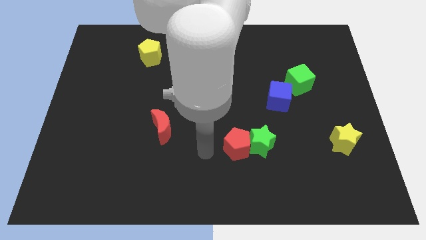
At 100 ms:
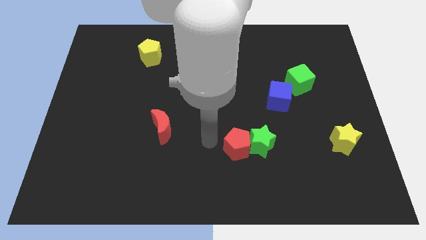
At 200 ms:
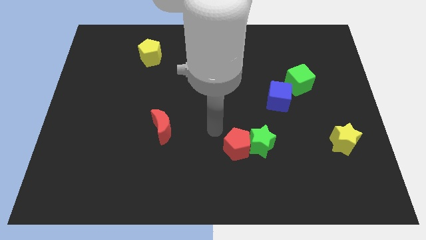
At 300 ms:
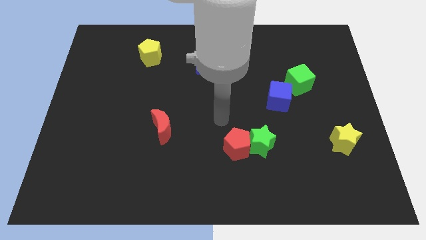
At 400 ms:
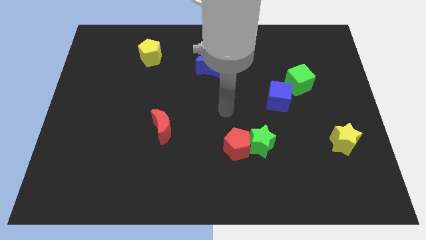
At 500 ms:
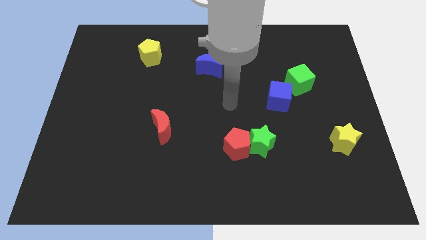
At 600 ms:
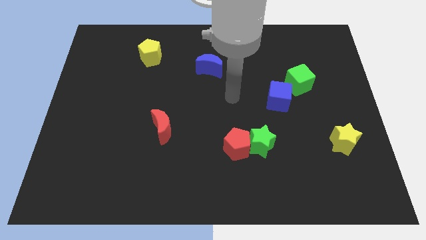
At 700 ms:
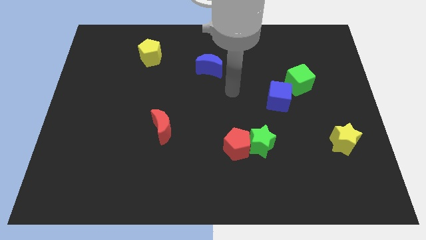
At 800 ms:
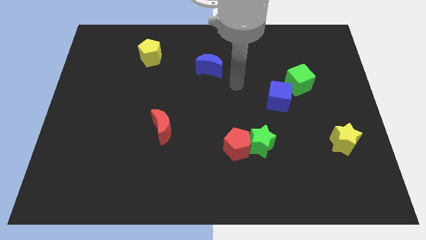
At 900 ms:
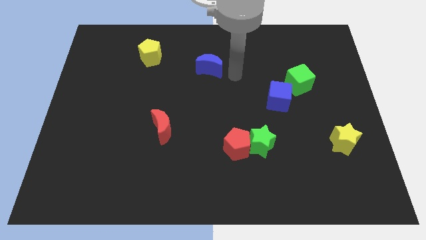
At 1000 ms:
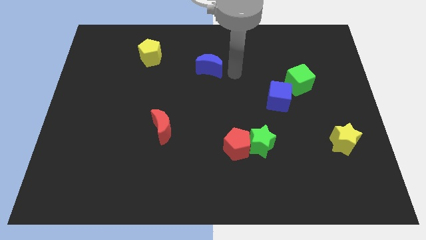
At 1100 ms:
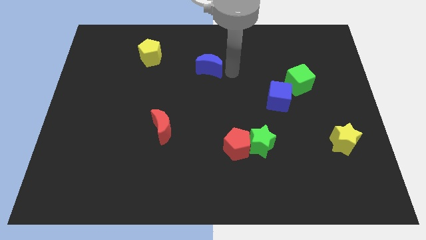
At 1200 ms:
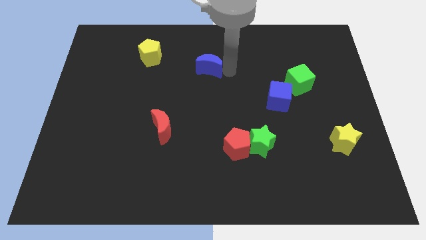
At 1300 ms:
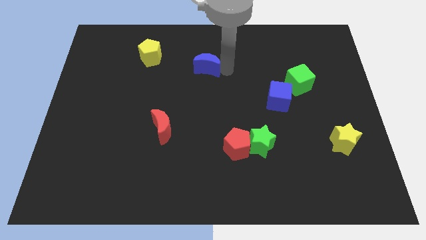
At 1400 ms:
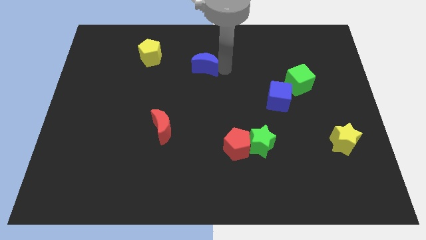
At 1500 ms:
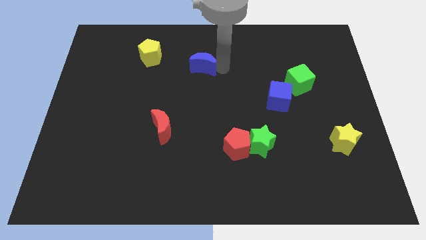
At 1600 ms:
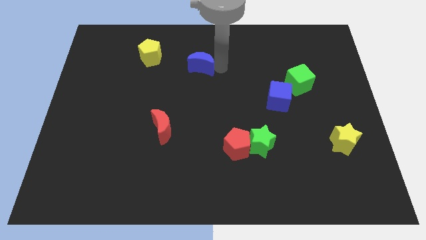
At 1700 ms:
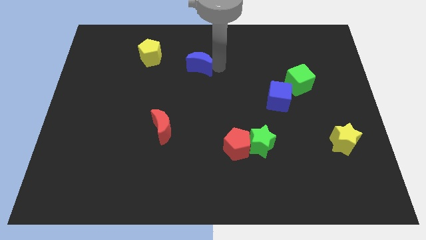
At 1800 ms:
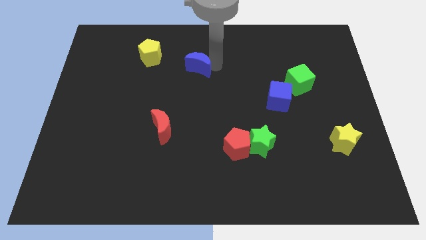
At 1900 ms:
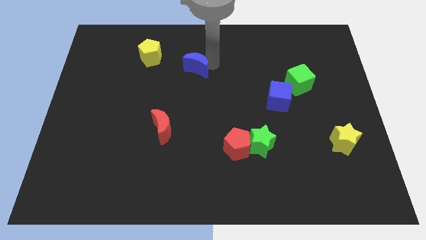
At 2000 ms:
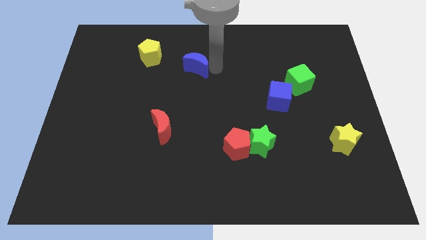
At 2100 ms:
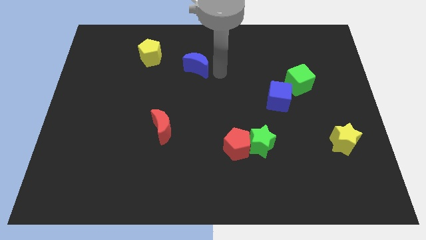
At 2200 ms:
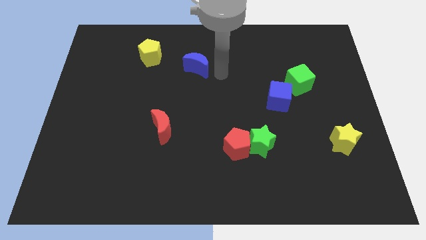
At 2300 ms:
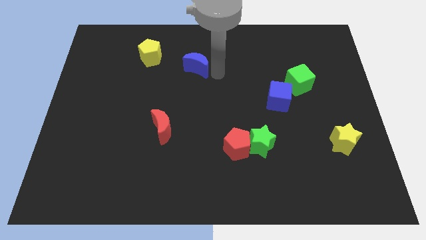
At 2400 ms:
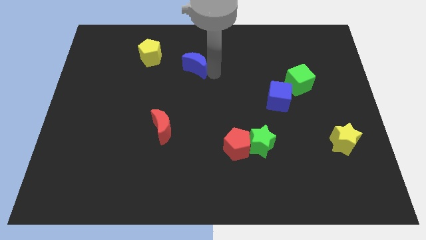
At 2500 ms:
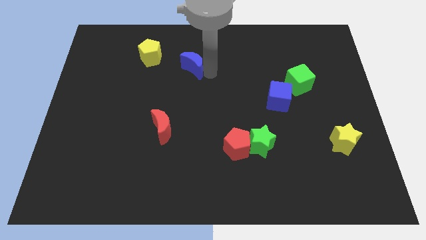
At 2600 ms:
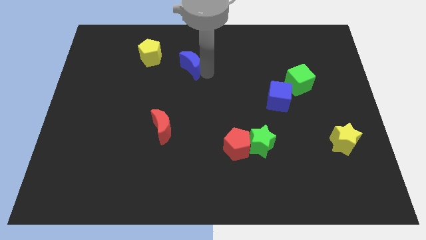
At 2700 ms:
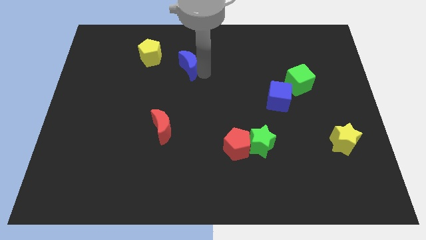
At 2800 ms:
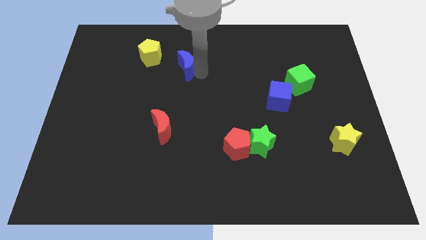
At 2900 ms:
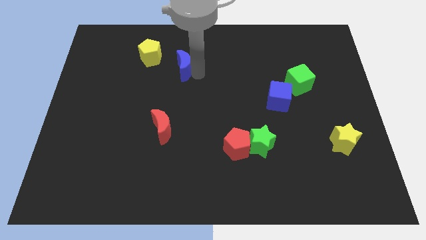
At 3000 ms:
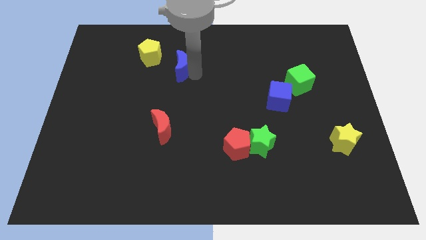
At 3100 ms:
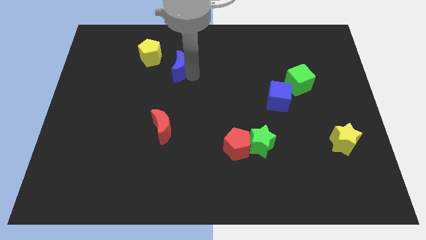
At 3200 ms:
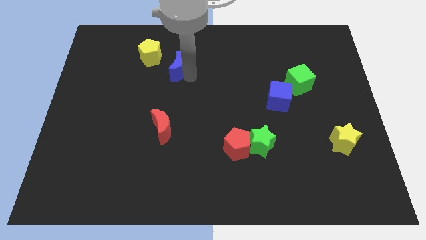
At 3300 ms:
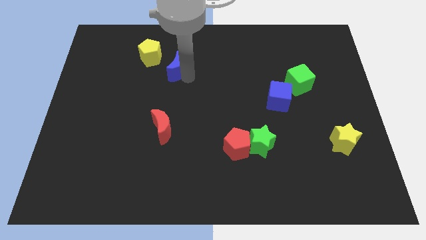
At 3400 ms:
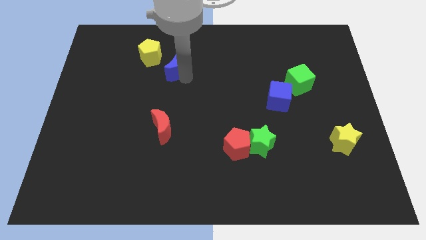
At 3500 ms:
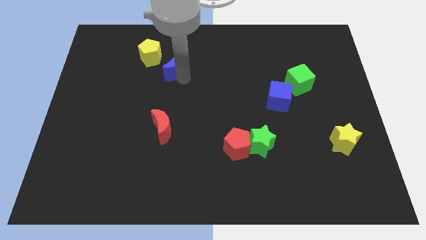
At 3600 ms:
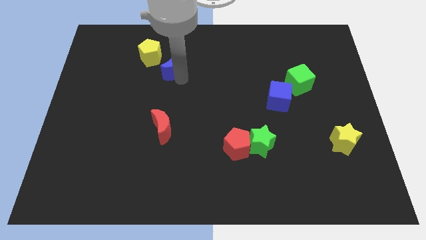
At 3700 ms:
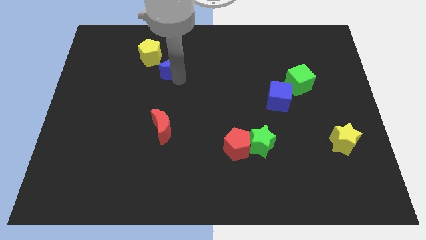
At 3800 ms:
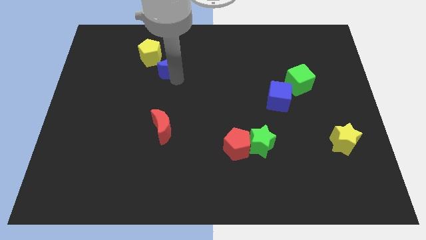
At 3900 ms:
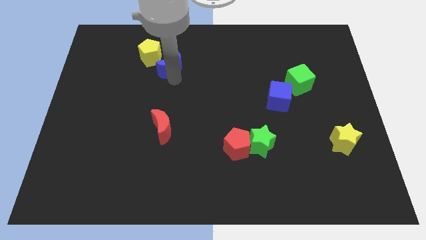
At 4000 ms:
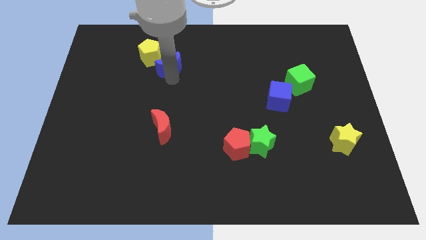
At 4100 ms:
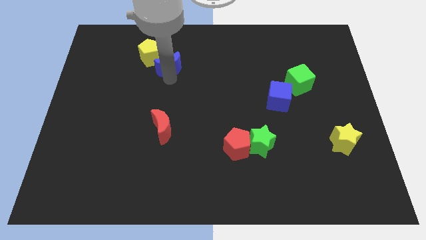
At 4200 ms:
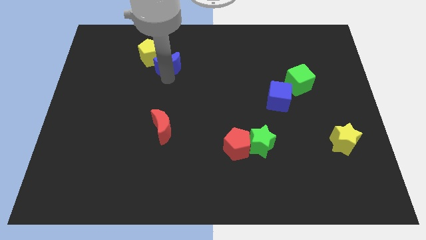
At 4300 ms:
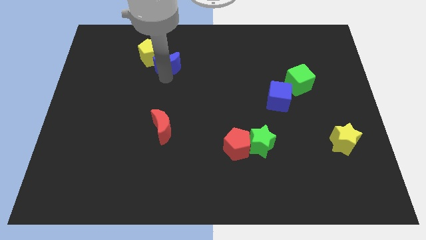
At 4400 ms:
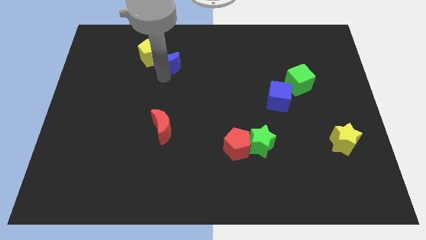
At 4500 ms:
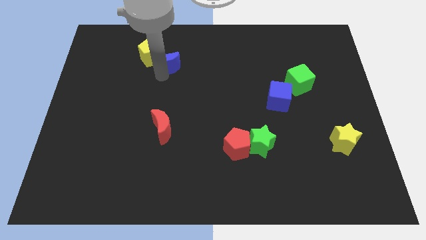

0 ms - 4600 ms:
move the blue moon towards the yellow pentagon

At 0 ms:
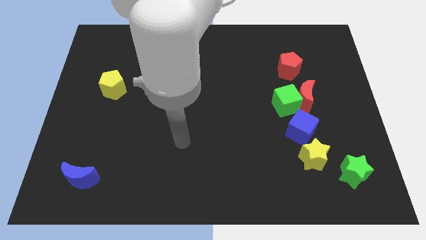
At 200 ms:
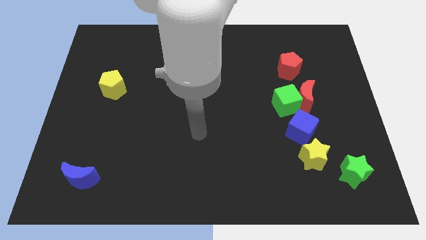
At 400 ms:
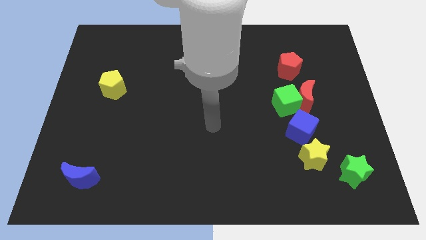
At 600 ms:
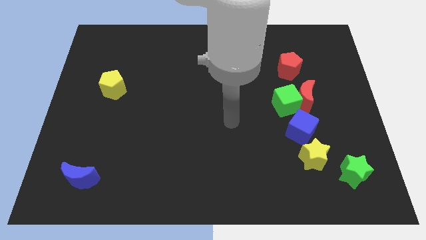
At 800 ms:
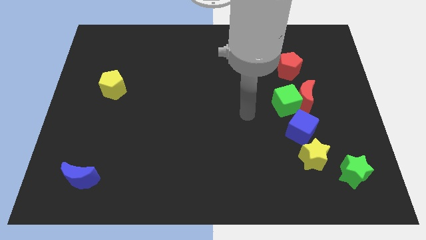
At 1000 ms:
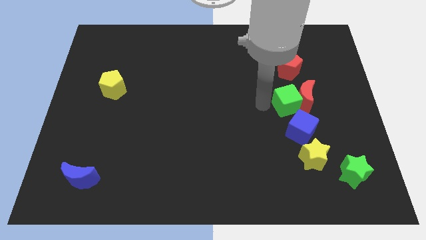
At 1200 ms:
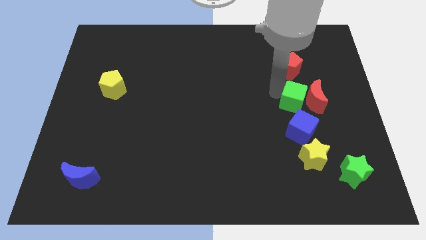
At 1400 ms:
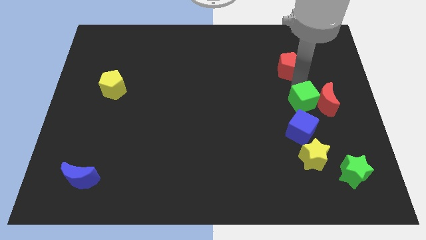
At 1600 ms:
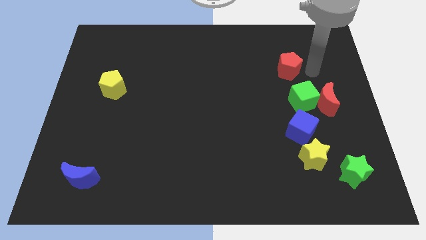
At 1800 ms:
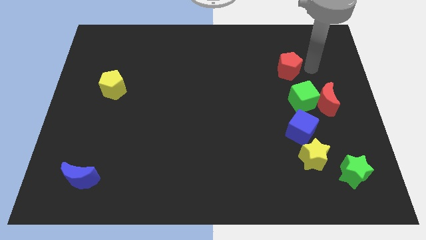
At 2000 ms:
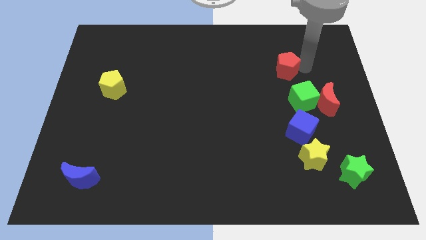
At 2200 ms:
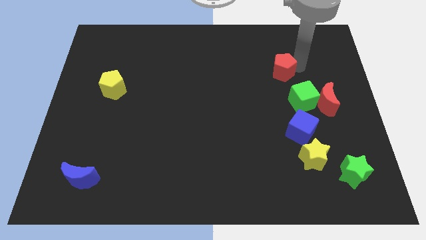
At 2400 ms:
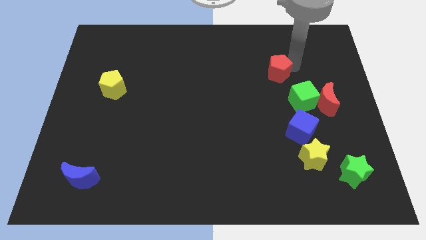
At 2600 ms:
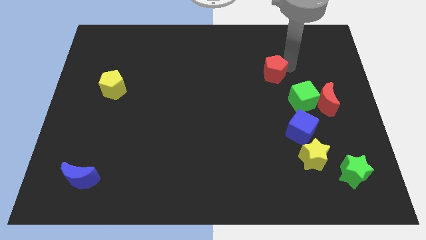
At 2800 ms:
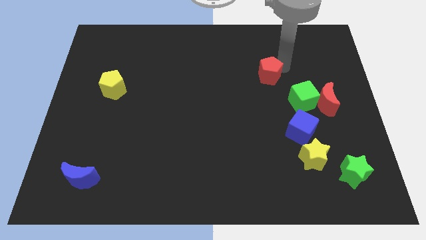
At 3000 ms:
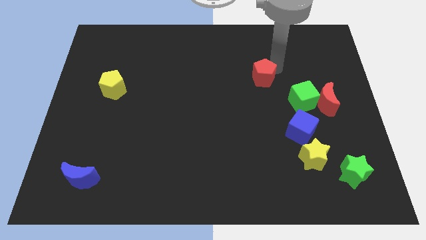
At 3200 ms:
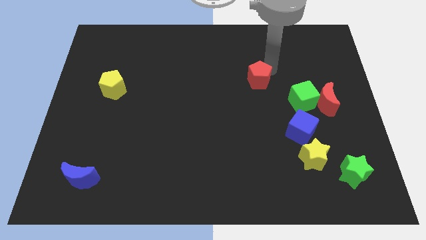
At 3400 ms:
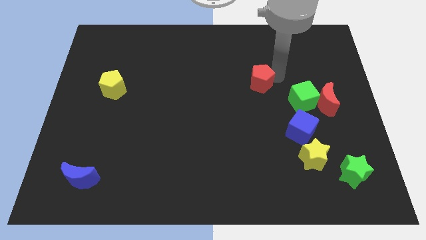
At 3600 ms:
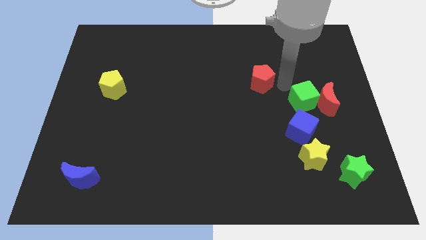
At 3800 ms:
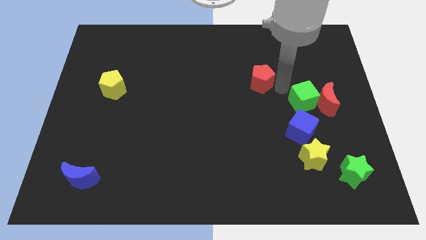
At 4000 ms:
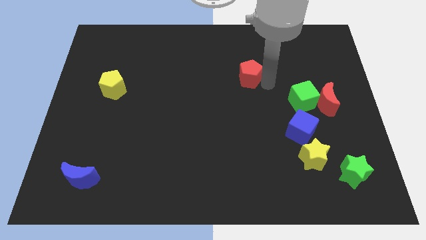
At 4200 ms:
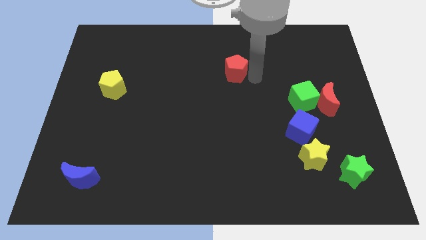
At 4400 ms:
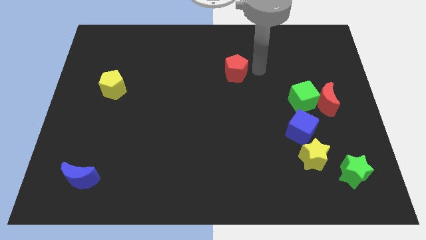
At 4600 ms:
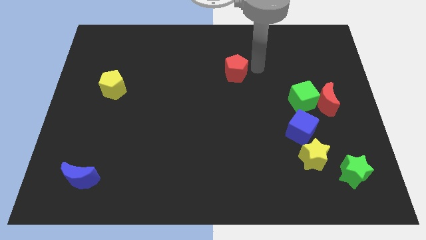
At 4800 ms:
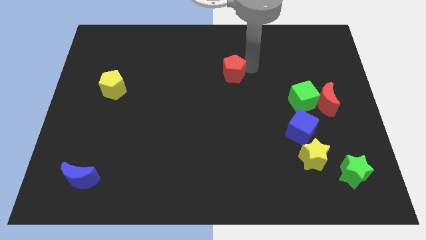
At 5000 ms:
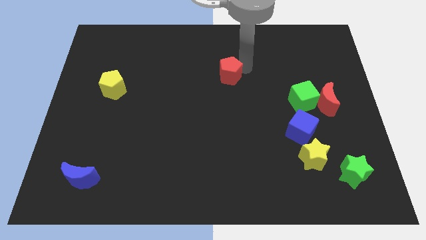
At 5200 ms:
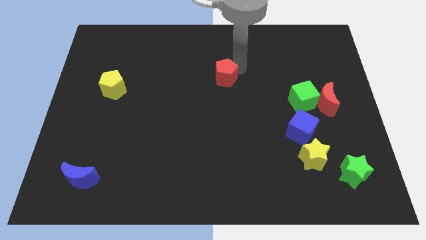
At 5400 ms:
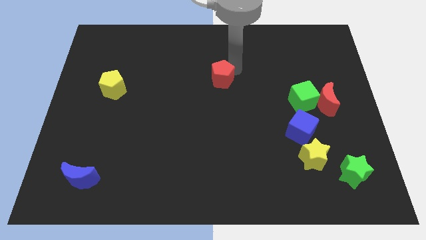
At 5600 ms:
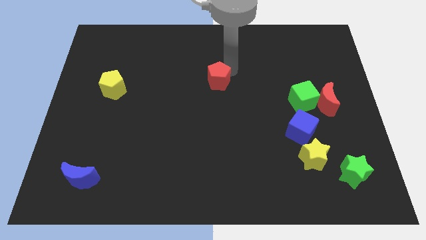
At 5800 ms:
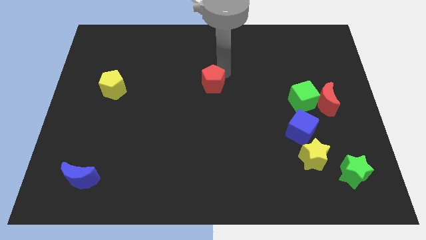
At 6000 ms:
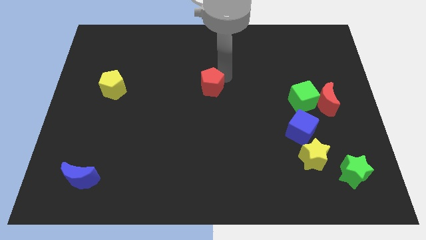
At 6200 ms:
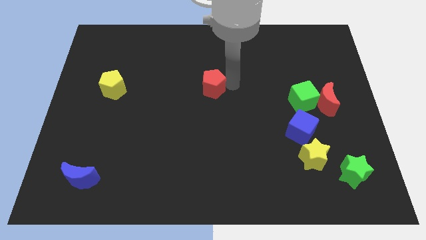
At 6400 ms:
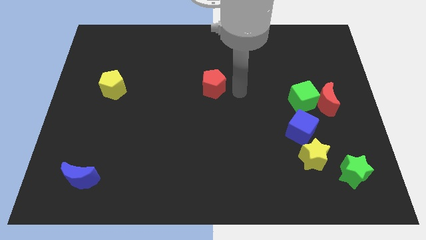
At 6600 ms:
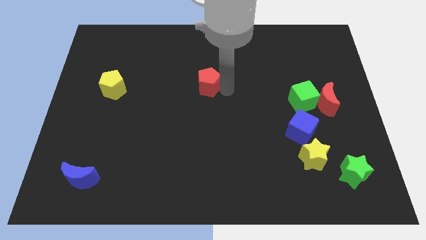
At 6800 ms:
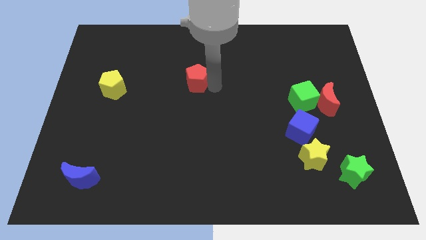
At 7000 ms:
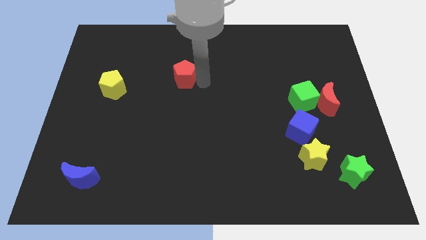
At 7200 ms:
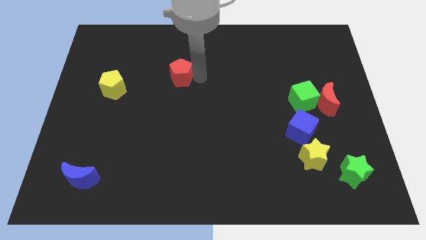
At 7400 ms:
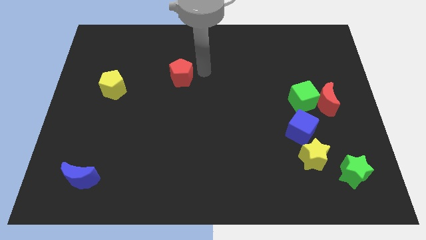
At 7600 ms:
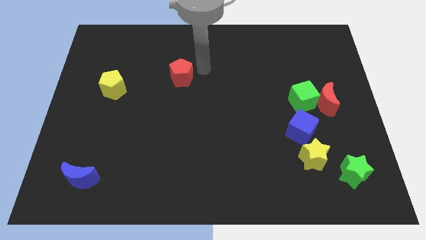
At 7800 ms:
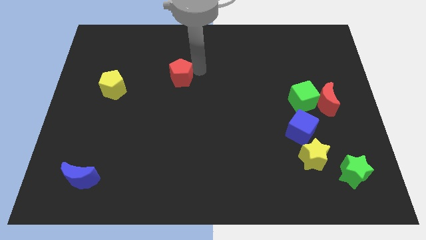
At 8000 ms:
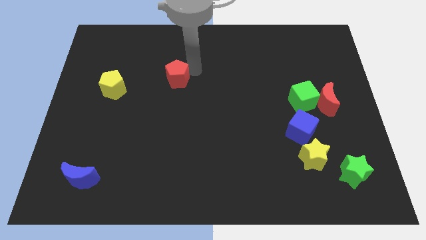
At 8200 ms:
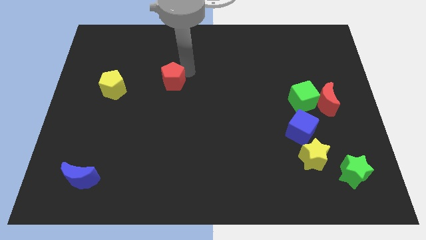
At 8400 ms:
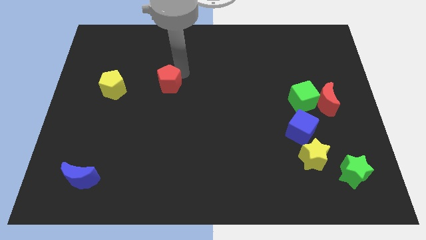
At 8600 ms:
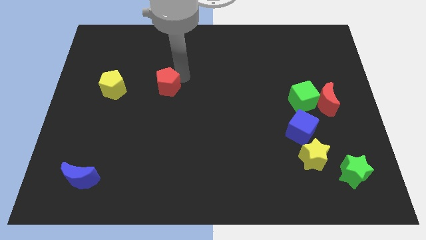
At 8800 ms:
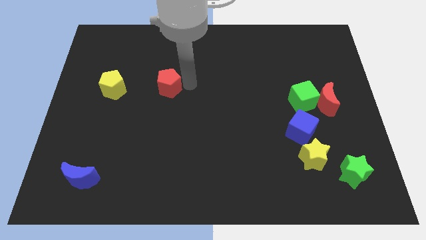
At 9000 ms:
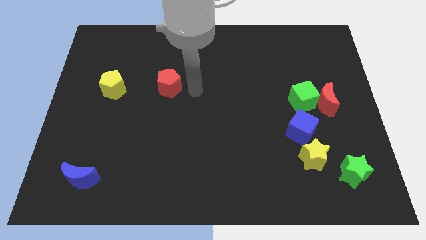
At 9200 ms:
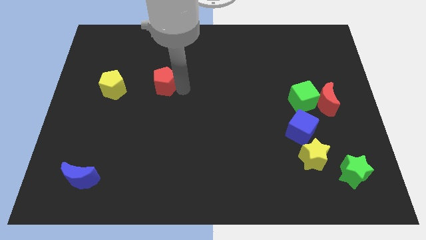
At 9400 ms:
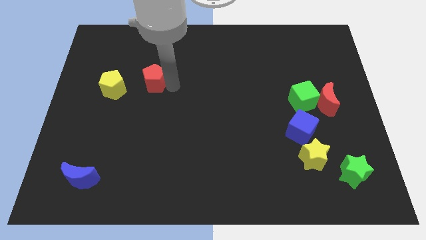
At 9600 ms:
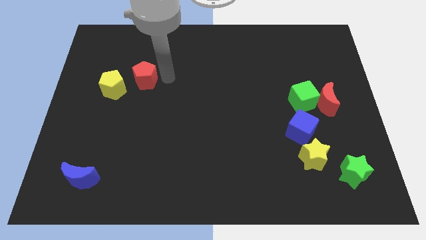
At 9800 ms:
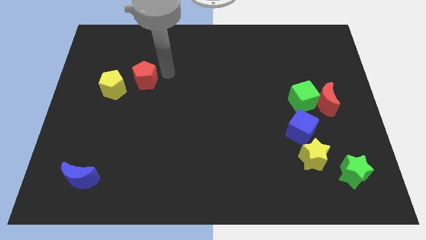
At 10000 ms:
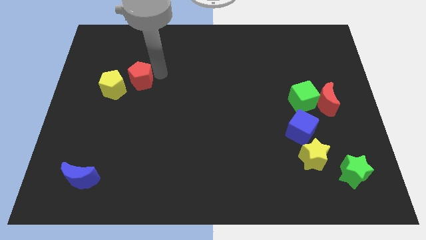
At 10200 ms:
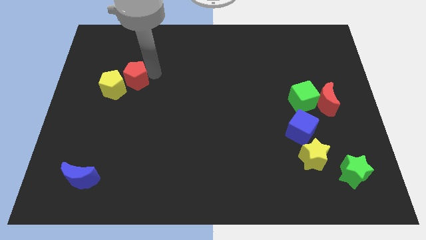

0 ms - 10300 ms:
move the red pentagon towards the yellow pentagon
